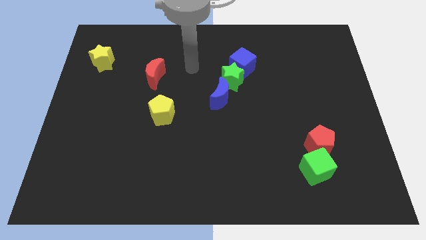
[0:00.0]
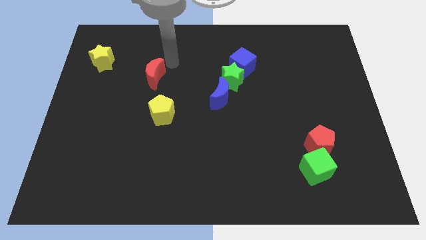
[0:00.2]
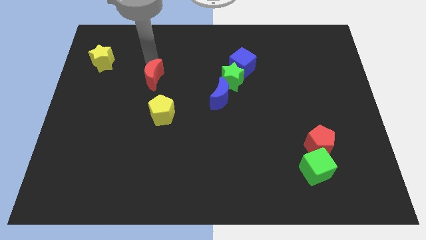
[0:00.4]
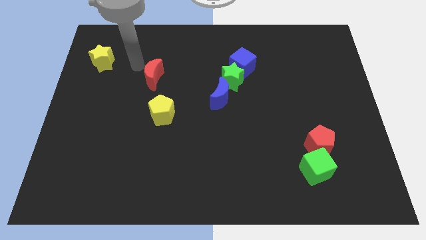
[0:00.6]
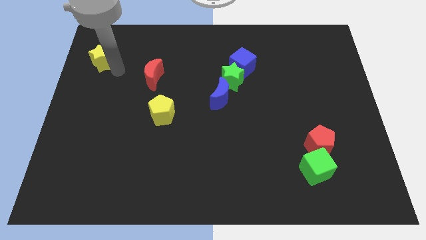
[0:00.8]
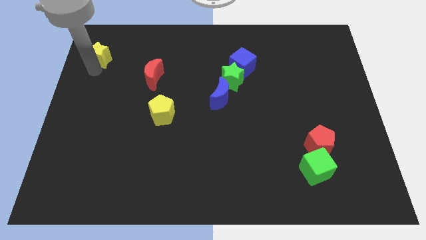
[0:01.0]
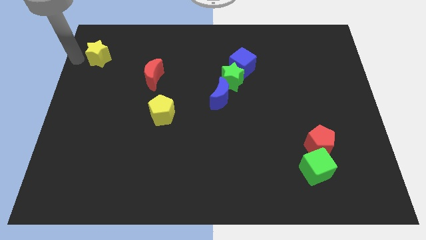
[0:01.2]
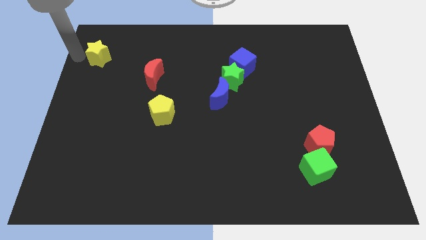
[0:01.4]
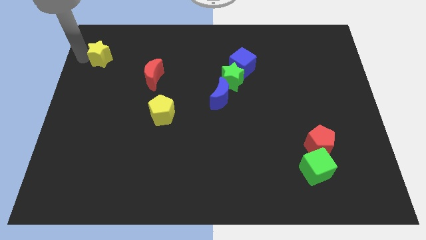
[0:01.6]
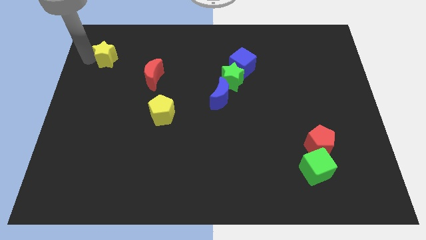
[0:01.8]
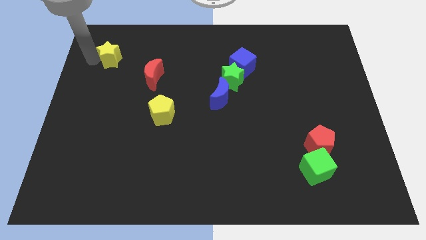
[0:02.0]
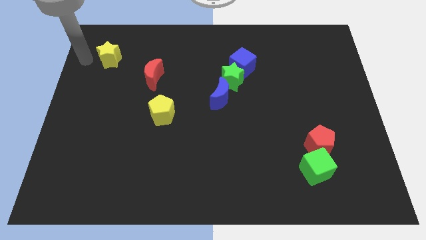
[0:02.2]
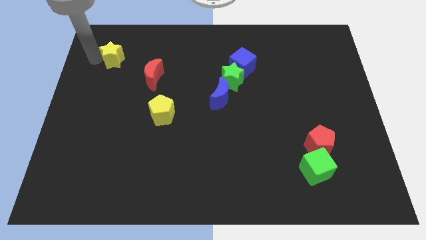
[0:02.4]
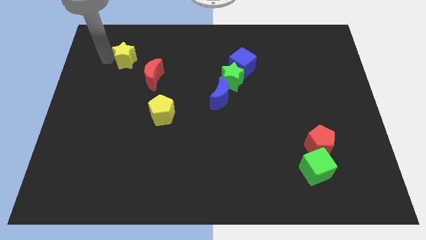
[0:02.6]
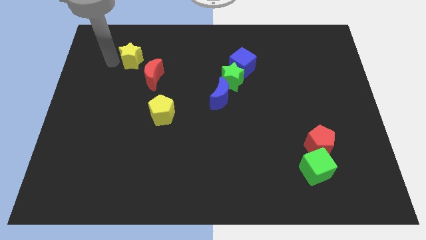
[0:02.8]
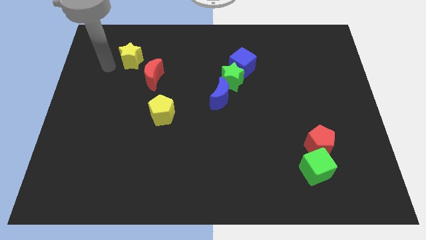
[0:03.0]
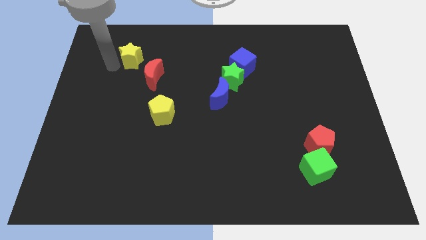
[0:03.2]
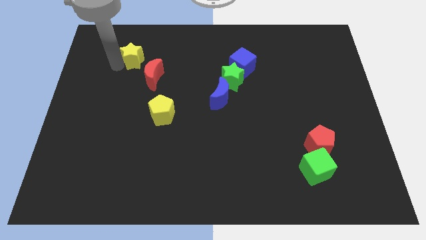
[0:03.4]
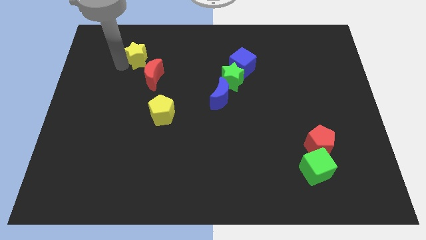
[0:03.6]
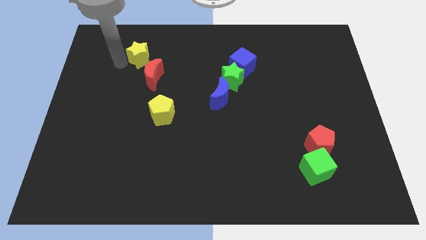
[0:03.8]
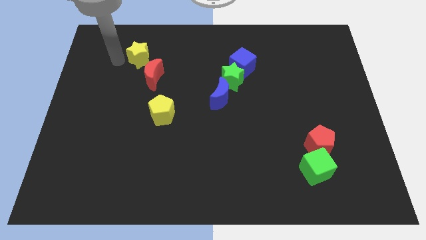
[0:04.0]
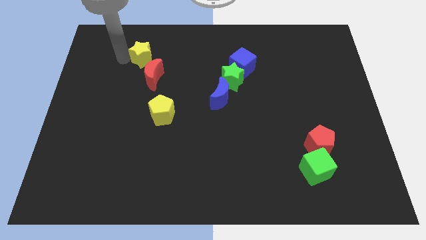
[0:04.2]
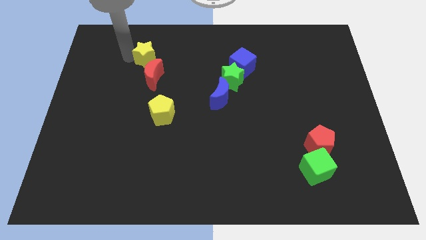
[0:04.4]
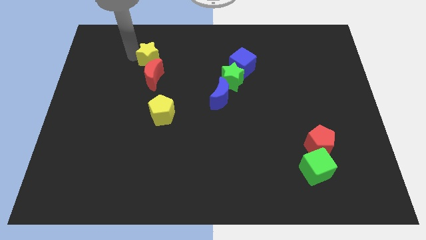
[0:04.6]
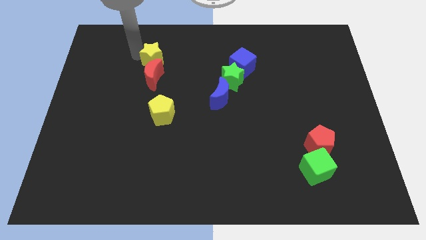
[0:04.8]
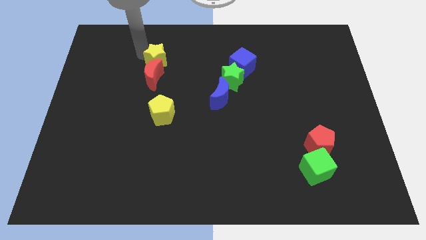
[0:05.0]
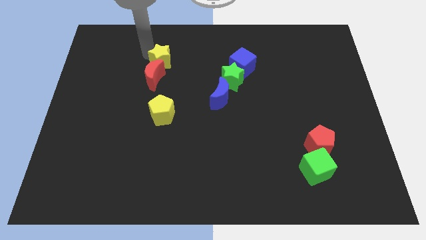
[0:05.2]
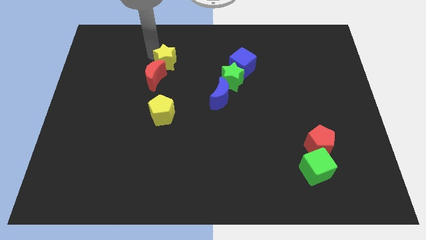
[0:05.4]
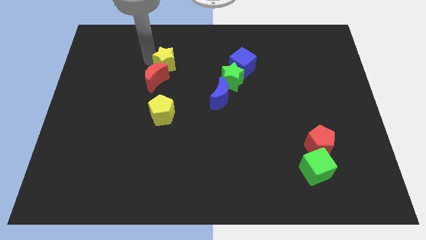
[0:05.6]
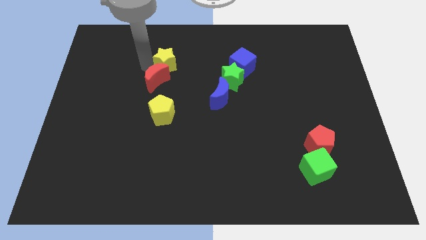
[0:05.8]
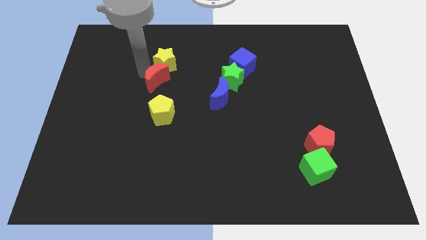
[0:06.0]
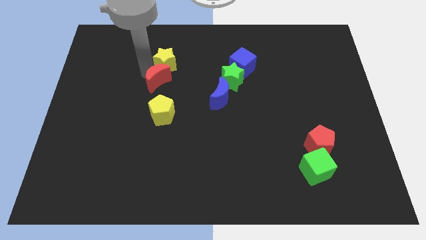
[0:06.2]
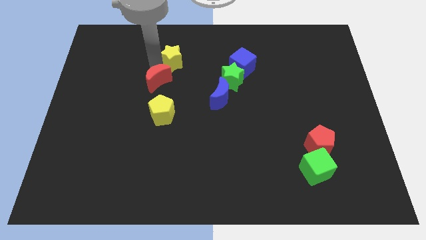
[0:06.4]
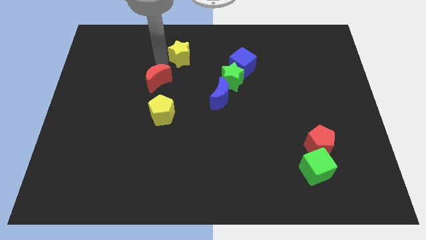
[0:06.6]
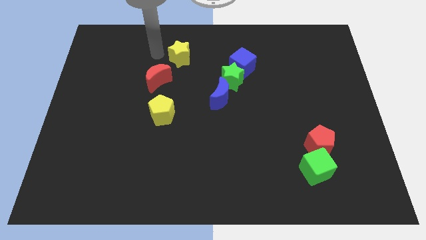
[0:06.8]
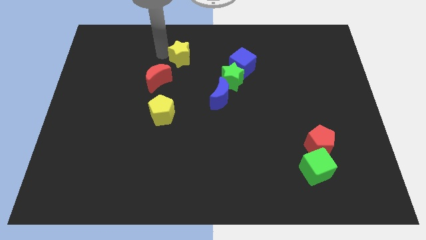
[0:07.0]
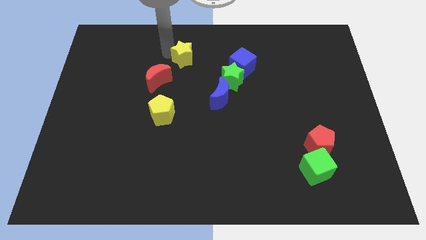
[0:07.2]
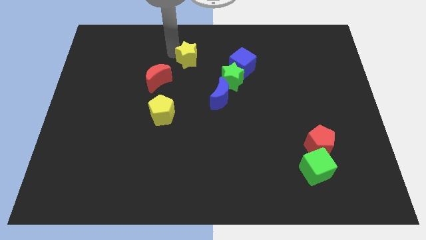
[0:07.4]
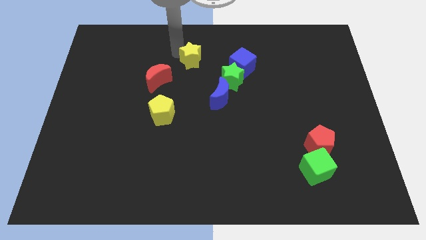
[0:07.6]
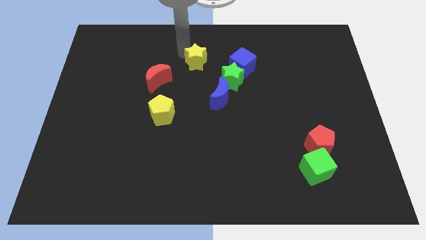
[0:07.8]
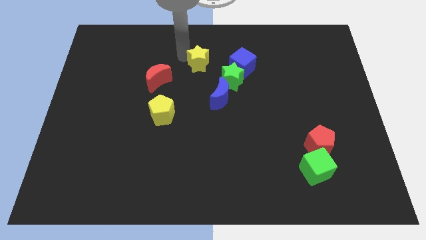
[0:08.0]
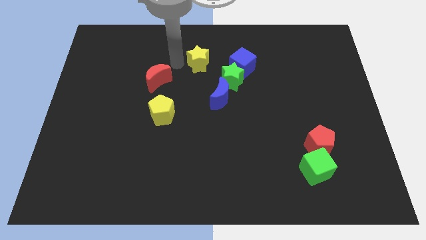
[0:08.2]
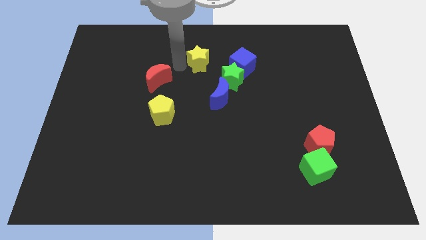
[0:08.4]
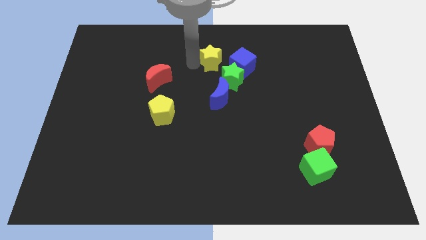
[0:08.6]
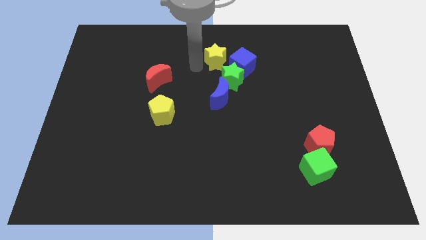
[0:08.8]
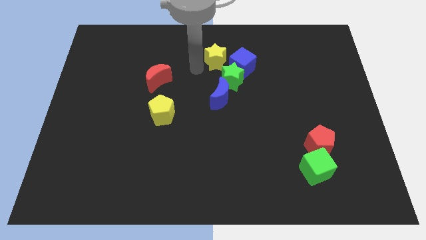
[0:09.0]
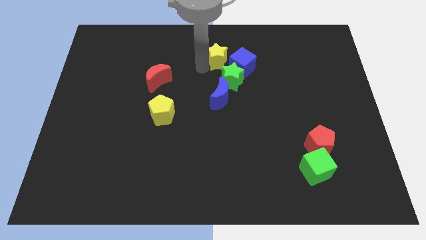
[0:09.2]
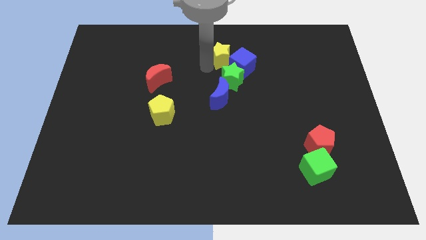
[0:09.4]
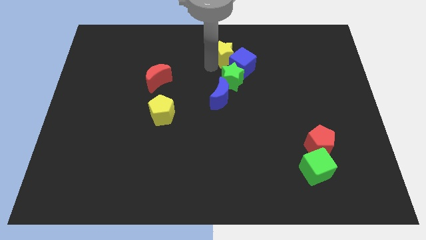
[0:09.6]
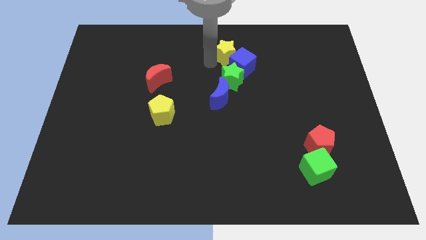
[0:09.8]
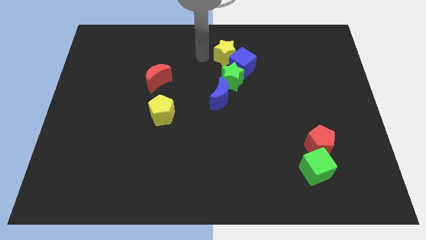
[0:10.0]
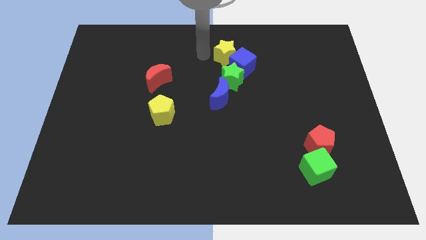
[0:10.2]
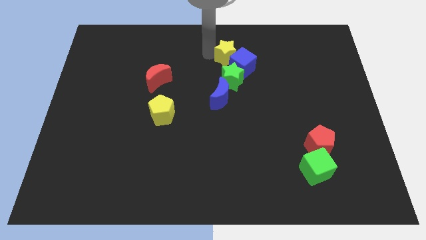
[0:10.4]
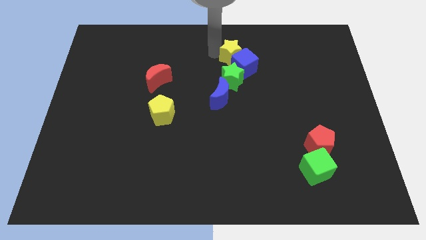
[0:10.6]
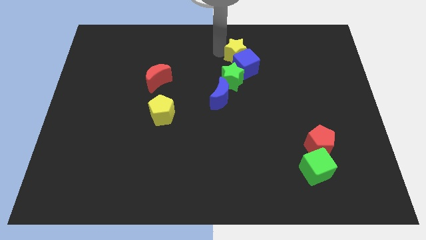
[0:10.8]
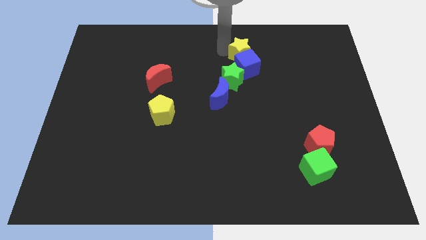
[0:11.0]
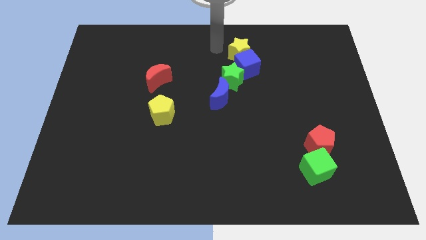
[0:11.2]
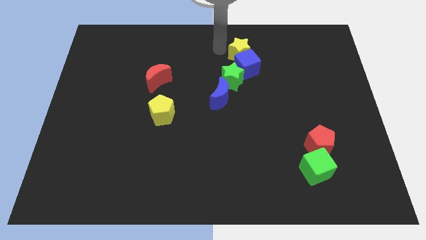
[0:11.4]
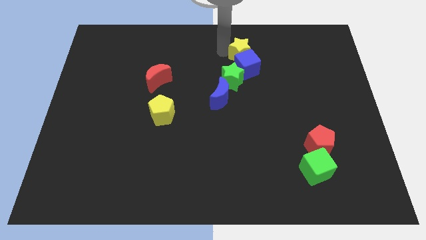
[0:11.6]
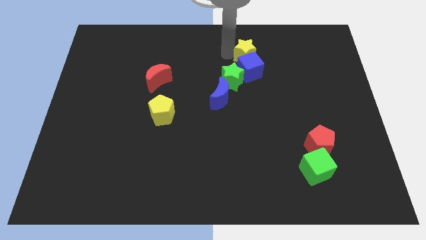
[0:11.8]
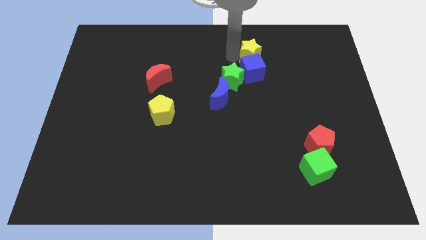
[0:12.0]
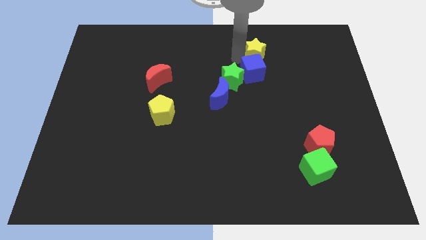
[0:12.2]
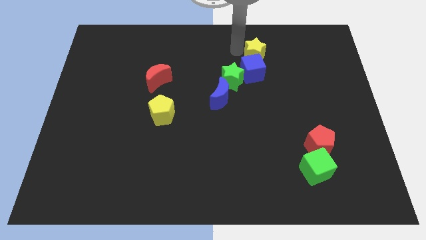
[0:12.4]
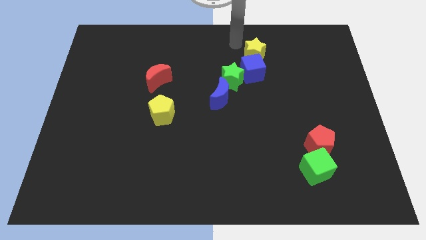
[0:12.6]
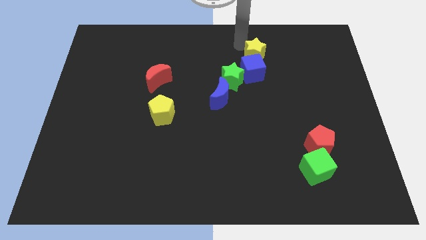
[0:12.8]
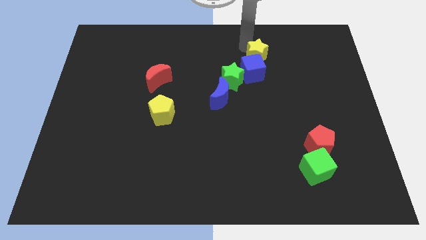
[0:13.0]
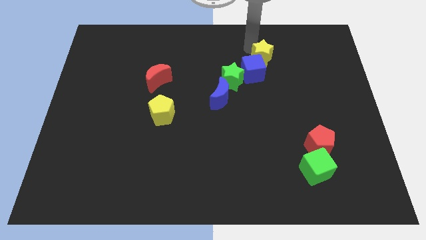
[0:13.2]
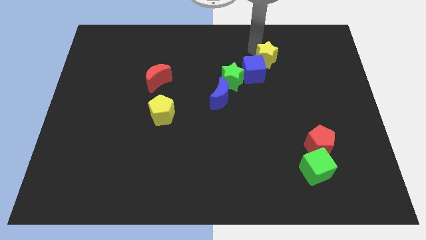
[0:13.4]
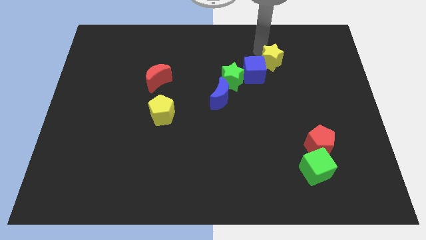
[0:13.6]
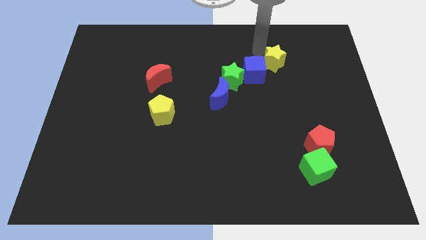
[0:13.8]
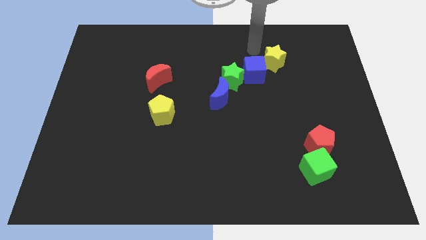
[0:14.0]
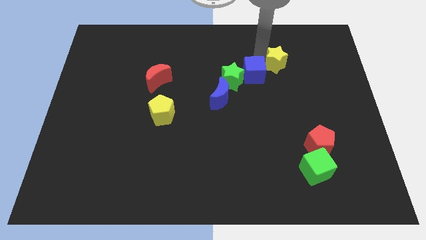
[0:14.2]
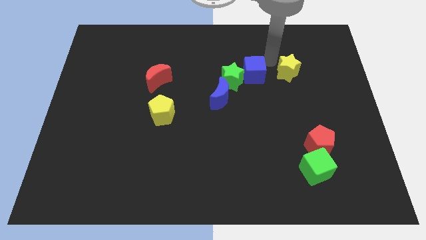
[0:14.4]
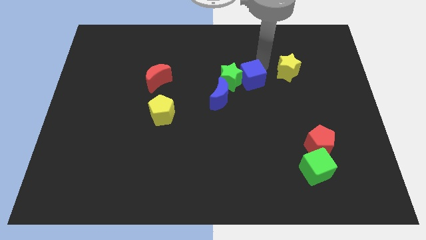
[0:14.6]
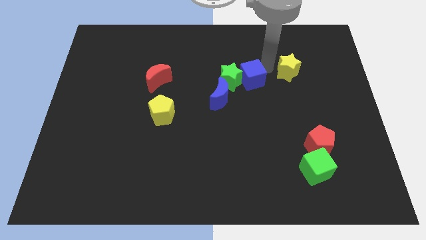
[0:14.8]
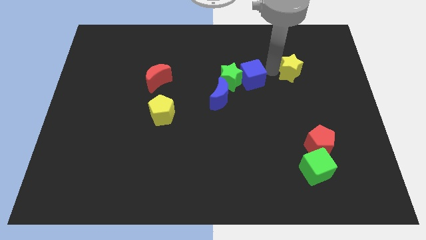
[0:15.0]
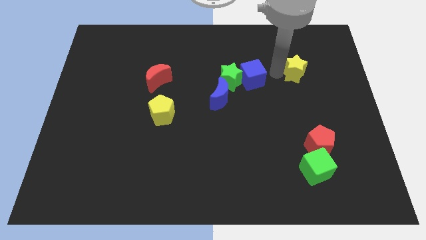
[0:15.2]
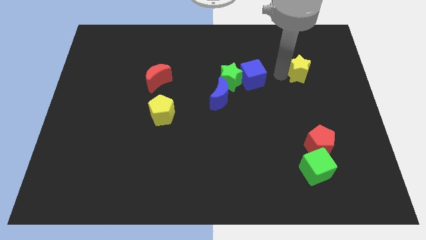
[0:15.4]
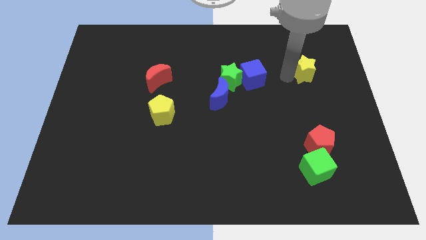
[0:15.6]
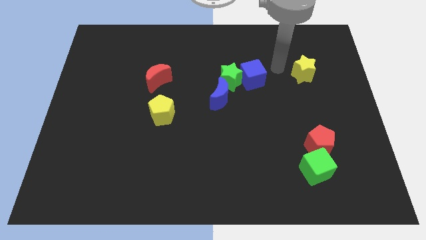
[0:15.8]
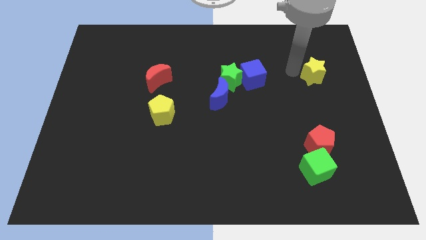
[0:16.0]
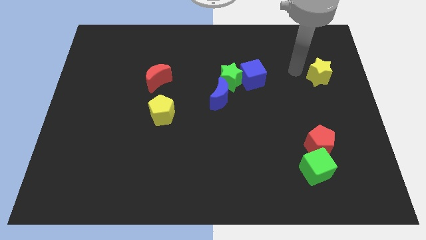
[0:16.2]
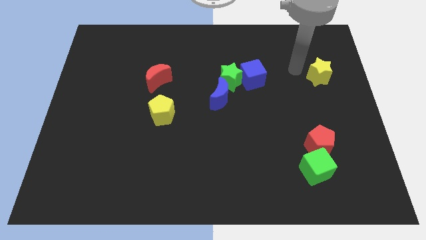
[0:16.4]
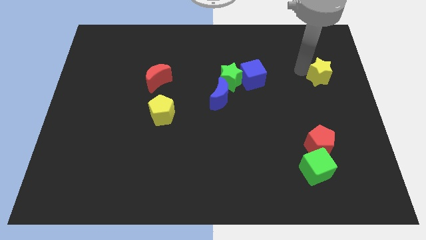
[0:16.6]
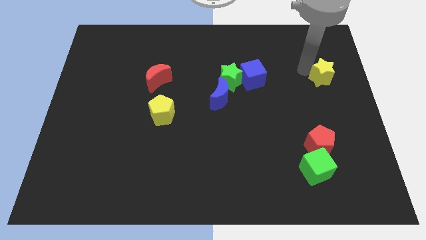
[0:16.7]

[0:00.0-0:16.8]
slide the yellow star to the center right
